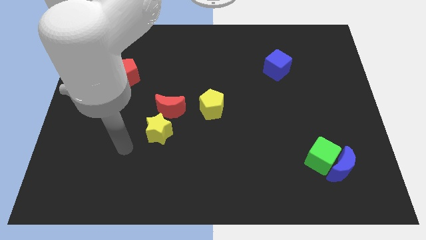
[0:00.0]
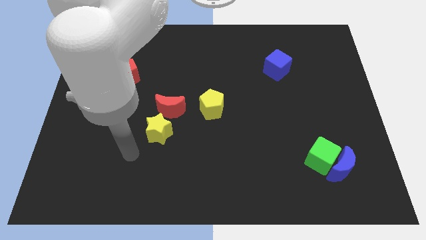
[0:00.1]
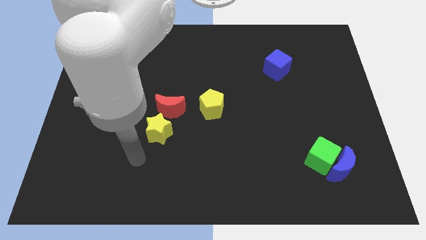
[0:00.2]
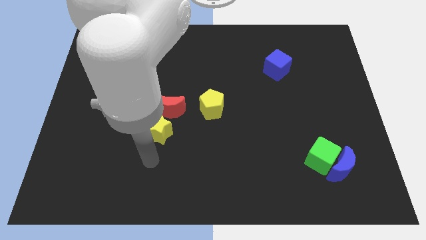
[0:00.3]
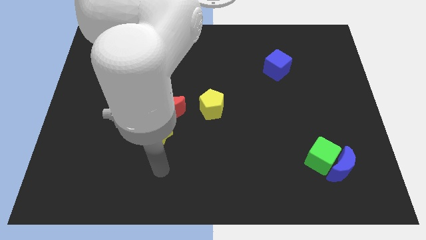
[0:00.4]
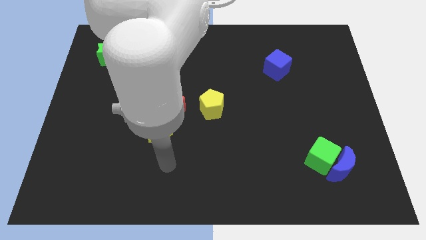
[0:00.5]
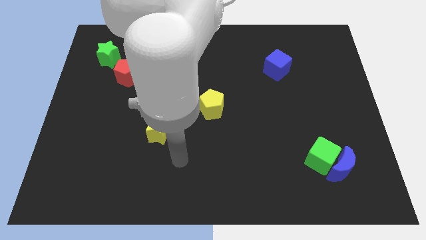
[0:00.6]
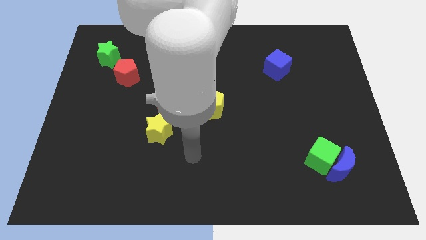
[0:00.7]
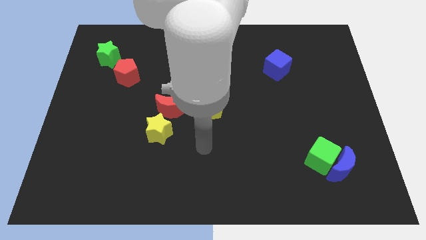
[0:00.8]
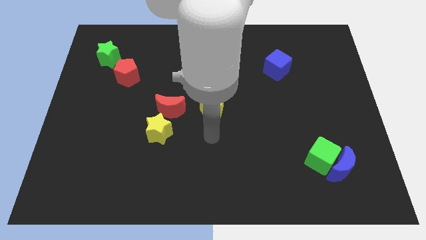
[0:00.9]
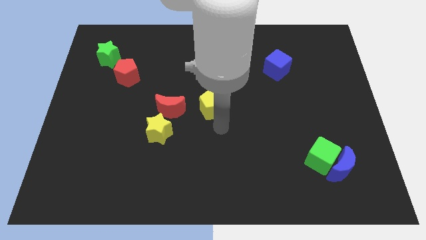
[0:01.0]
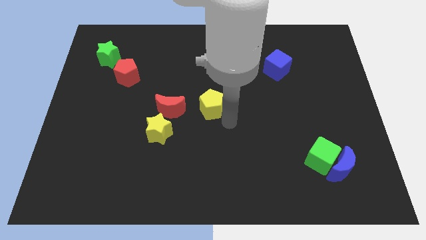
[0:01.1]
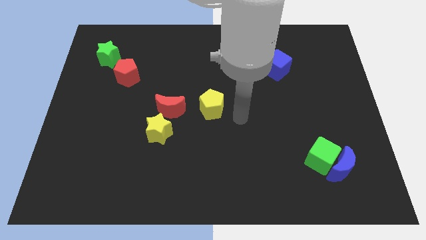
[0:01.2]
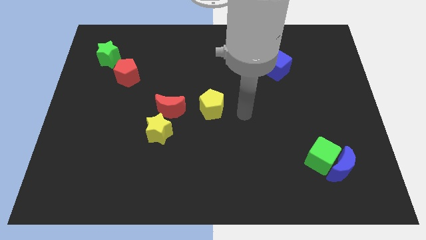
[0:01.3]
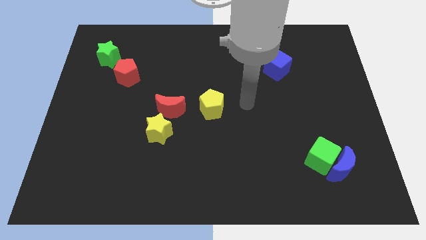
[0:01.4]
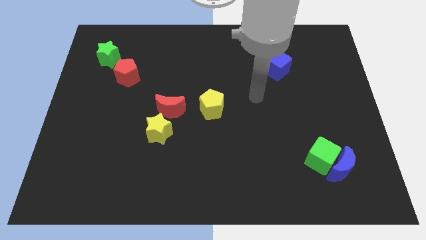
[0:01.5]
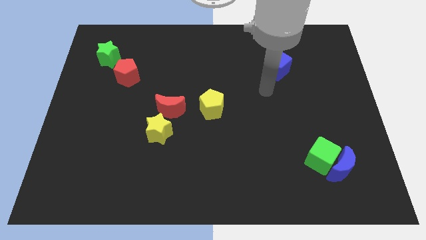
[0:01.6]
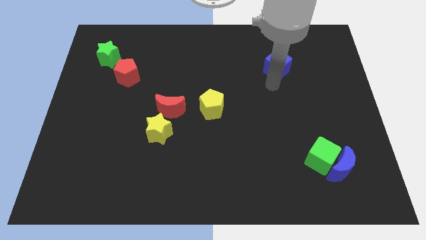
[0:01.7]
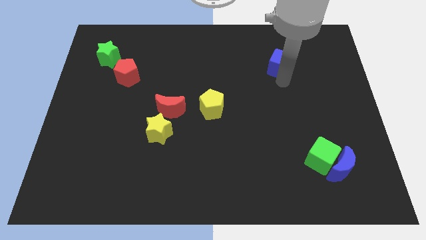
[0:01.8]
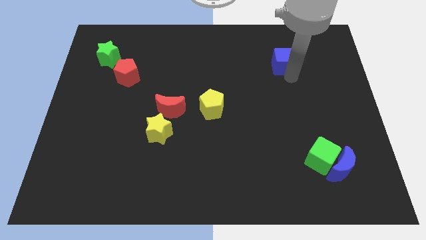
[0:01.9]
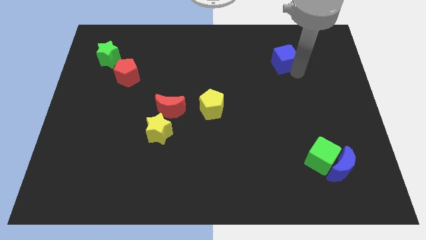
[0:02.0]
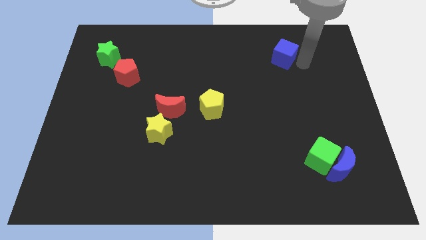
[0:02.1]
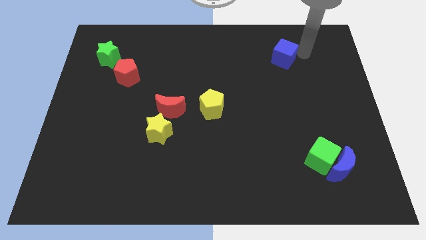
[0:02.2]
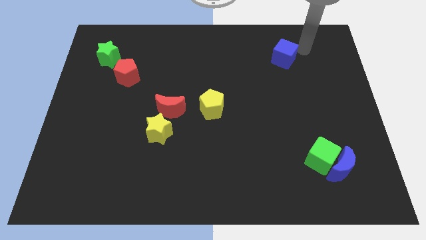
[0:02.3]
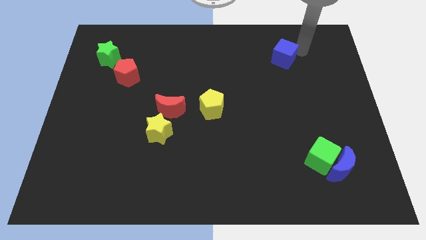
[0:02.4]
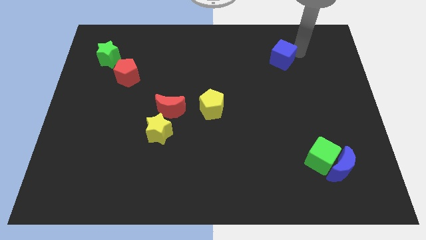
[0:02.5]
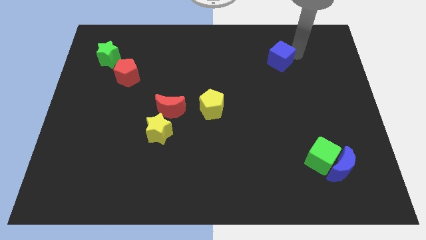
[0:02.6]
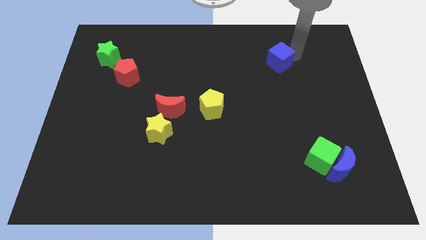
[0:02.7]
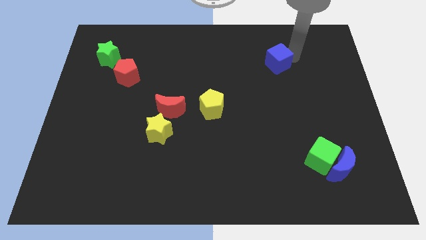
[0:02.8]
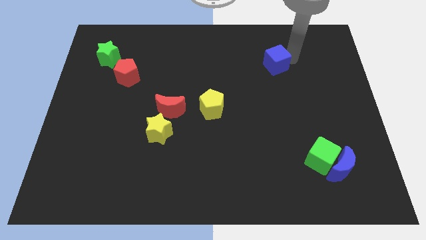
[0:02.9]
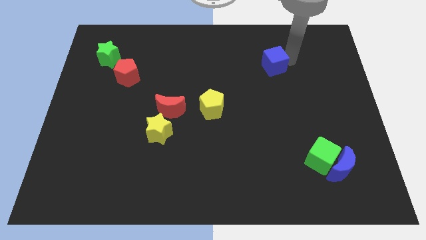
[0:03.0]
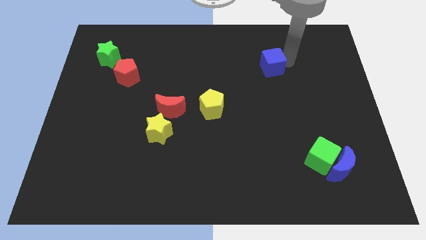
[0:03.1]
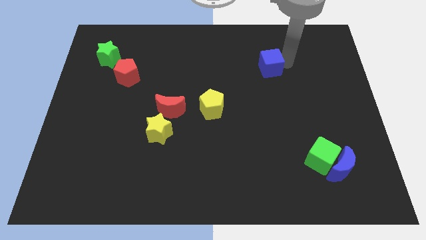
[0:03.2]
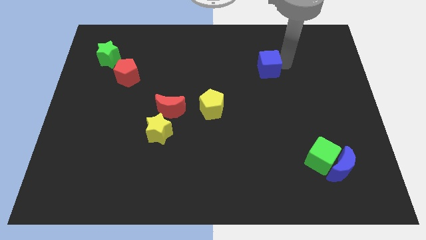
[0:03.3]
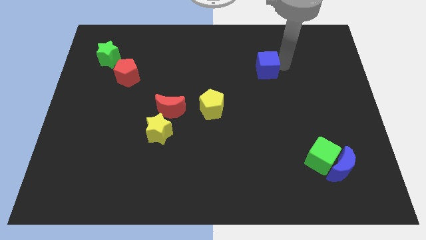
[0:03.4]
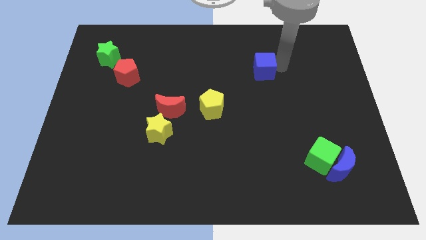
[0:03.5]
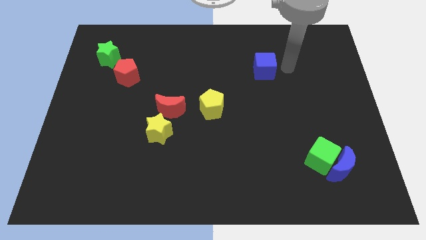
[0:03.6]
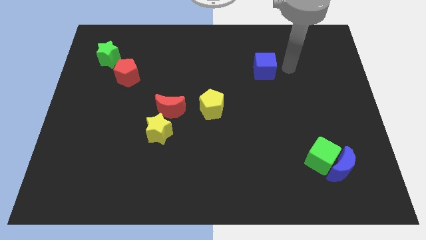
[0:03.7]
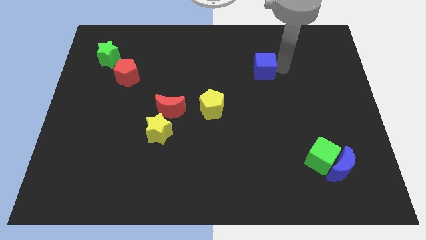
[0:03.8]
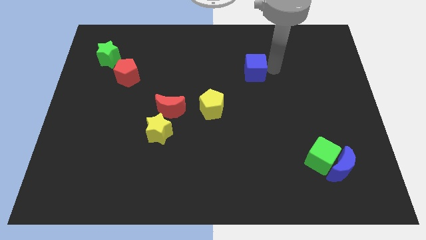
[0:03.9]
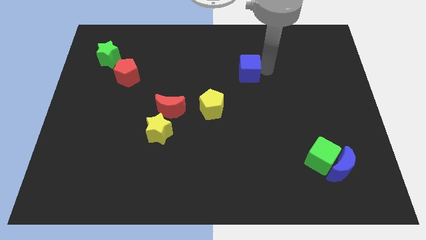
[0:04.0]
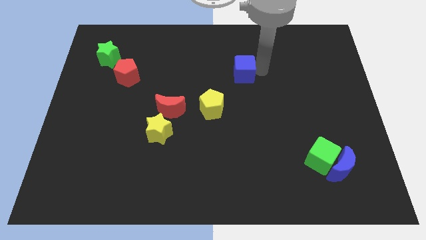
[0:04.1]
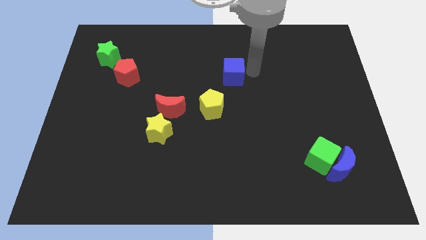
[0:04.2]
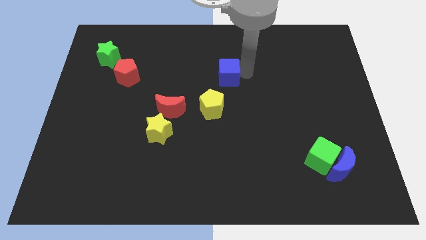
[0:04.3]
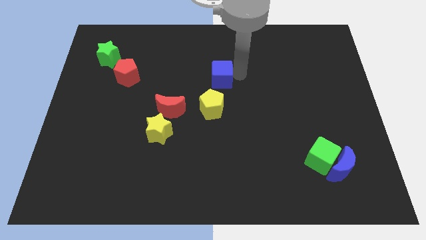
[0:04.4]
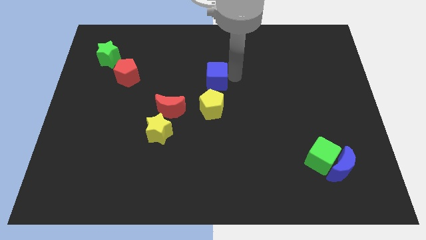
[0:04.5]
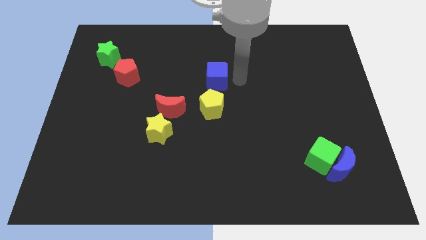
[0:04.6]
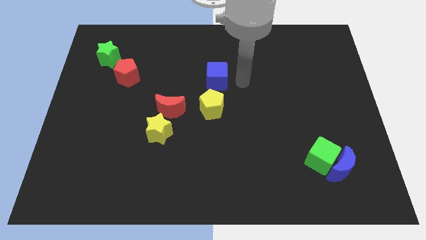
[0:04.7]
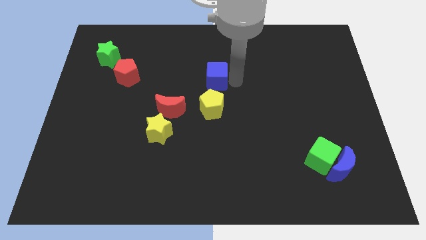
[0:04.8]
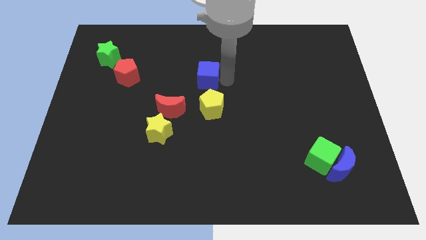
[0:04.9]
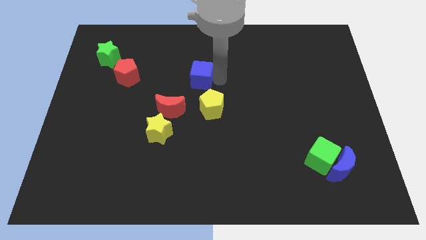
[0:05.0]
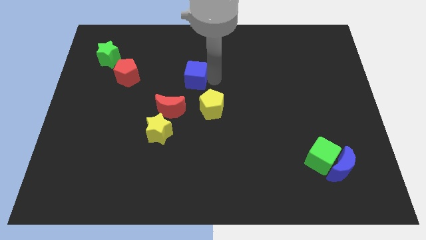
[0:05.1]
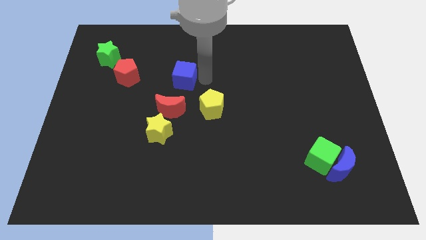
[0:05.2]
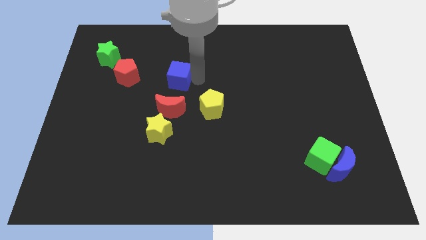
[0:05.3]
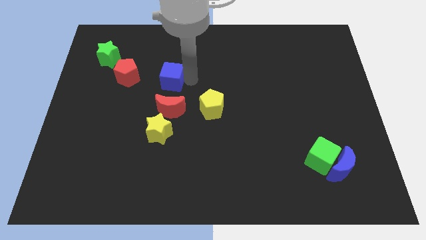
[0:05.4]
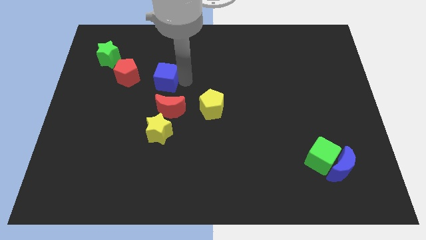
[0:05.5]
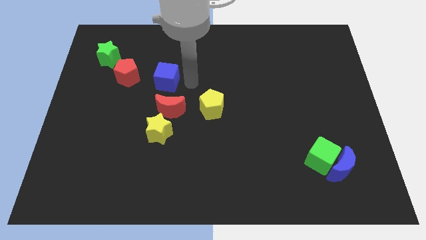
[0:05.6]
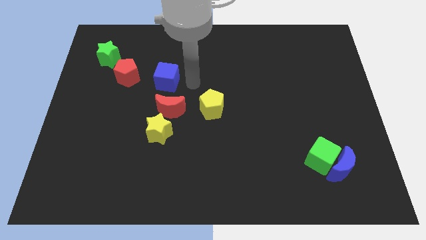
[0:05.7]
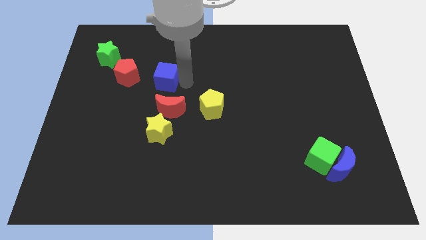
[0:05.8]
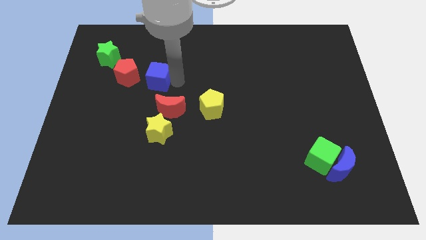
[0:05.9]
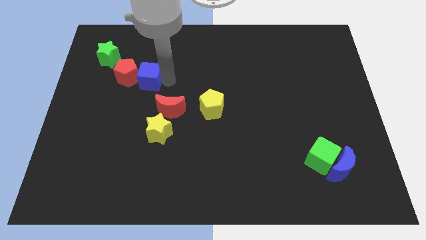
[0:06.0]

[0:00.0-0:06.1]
move the blue cube next to the red pentagon

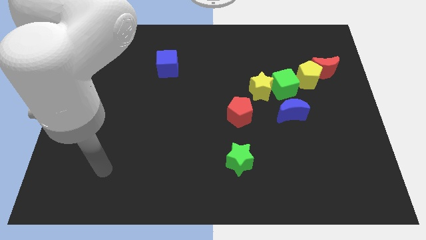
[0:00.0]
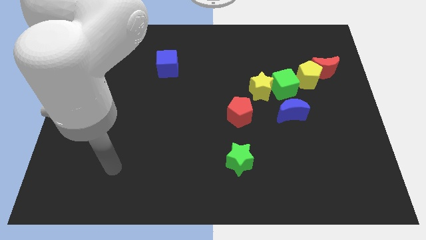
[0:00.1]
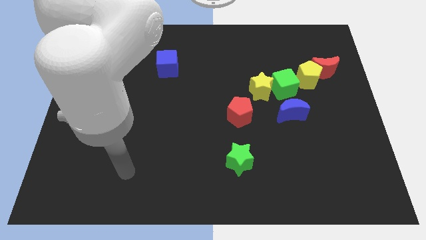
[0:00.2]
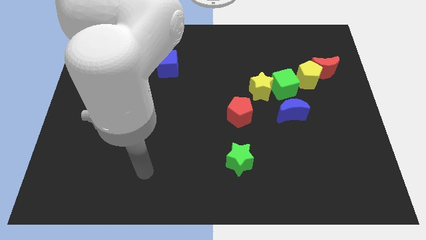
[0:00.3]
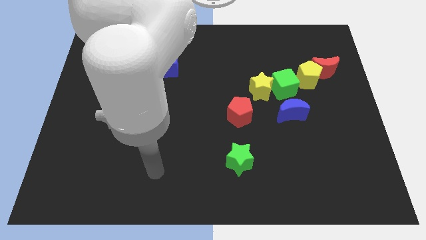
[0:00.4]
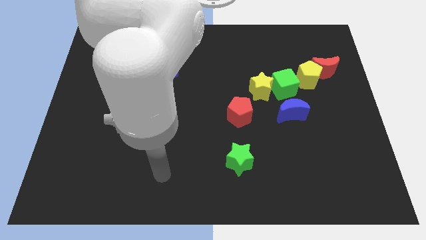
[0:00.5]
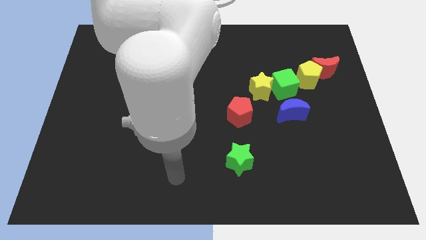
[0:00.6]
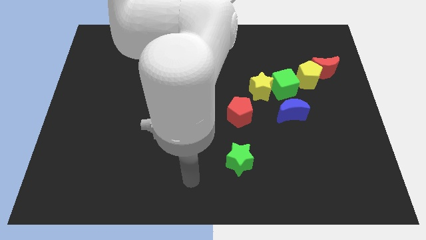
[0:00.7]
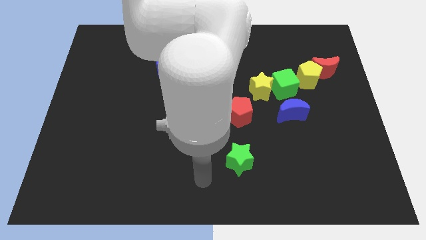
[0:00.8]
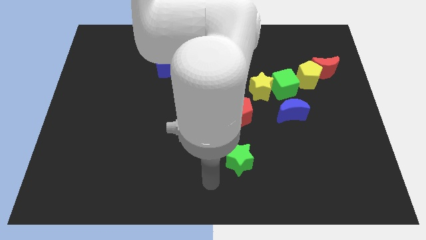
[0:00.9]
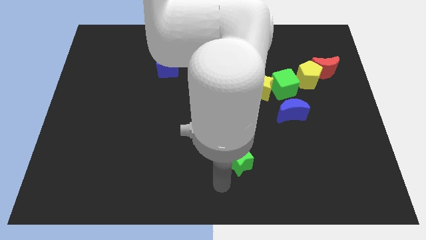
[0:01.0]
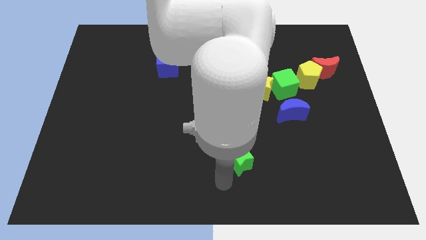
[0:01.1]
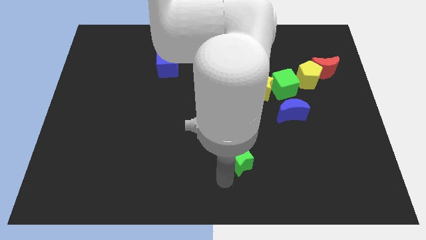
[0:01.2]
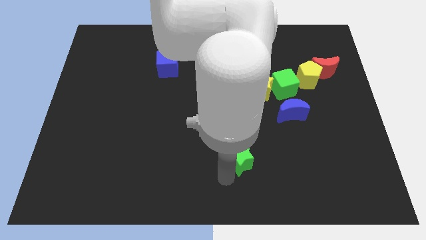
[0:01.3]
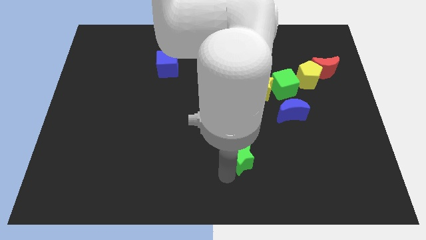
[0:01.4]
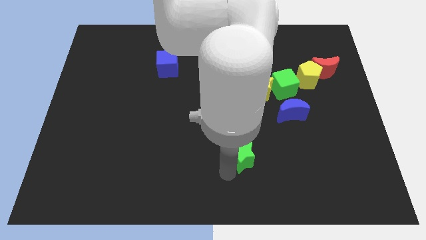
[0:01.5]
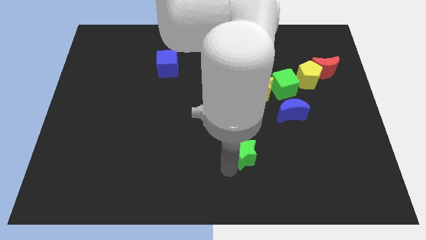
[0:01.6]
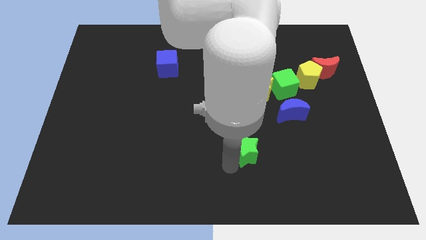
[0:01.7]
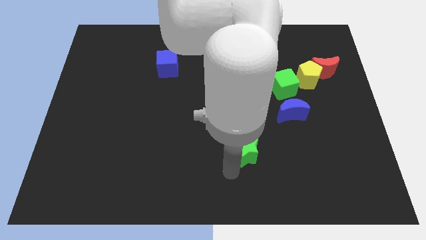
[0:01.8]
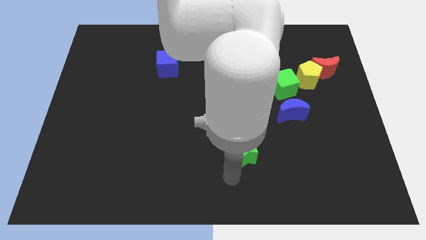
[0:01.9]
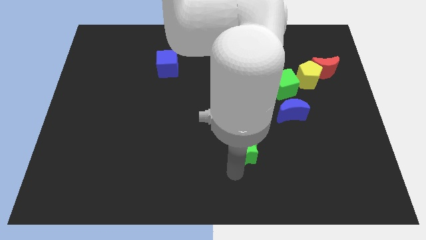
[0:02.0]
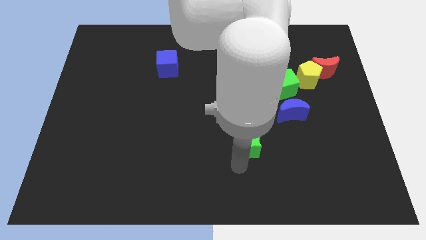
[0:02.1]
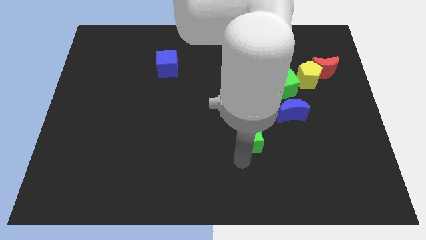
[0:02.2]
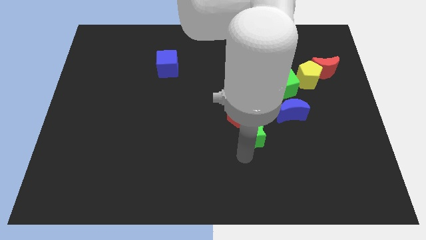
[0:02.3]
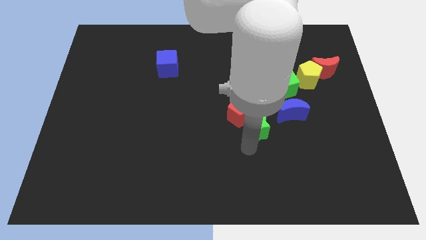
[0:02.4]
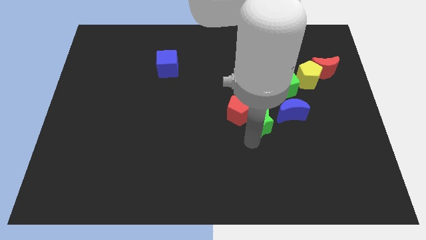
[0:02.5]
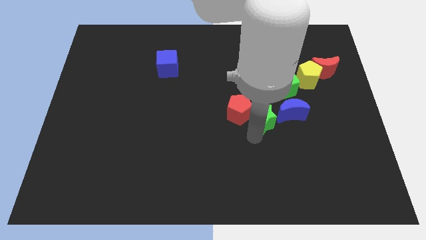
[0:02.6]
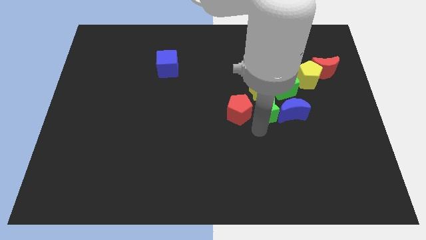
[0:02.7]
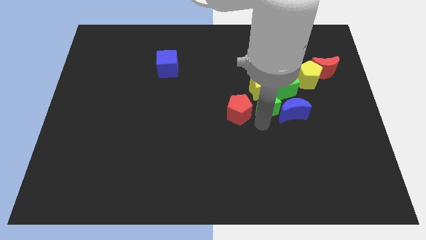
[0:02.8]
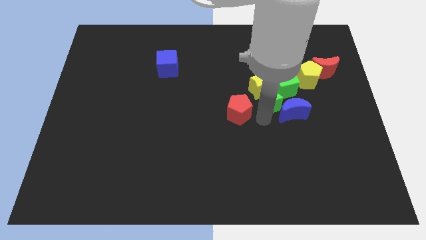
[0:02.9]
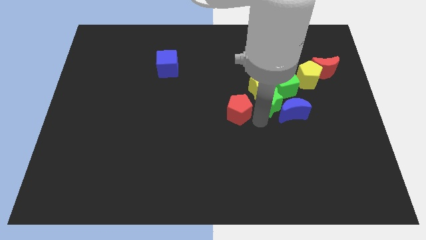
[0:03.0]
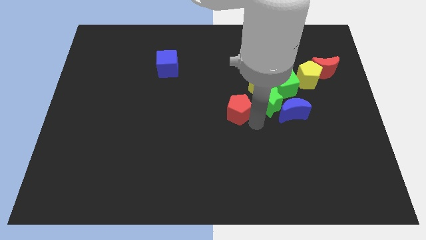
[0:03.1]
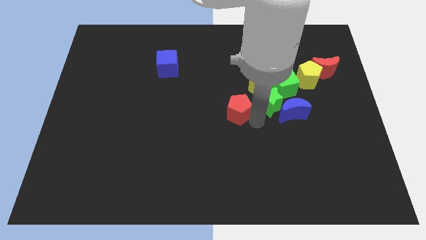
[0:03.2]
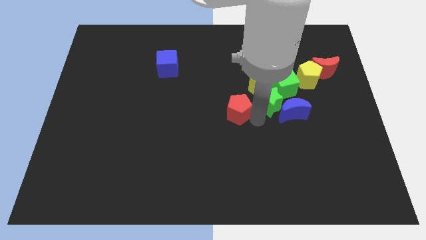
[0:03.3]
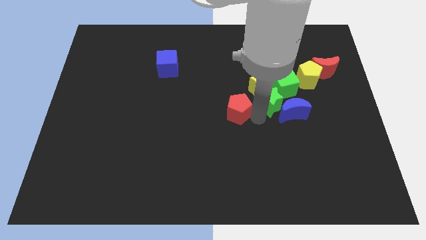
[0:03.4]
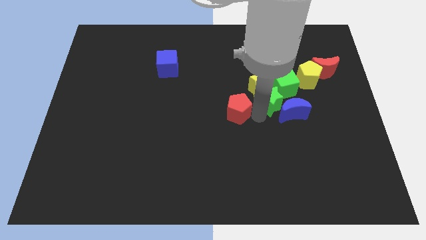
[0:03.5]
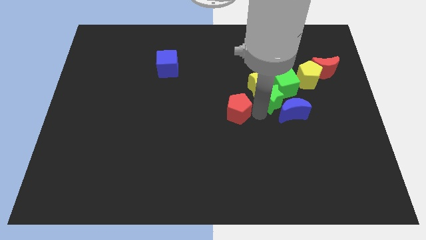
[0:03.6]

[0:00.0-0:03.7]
move the green star close to the green cube
